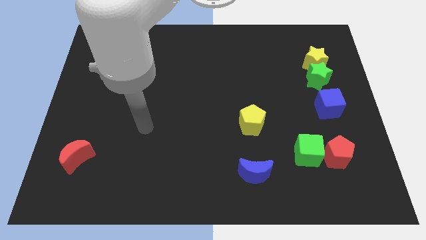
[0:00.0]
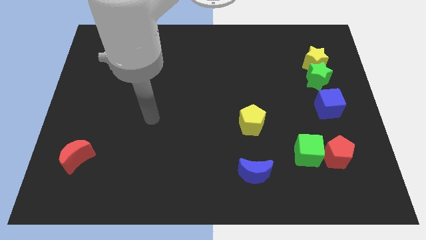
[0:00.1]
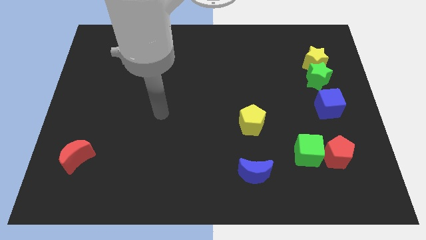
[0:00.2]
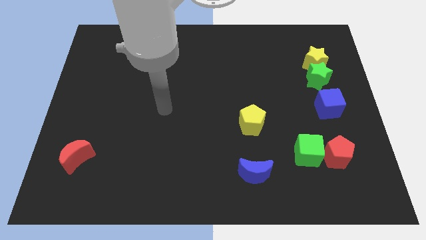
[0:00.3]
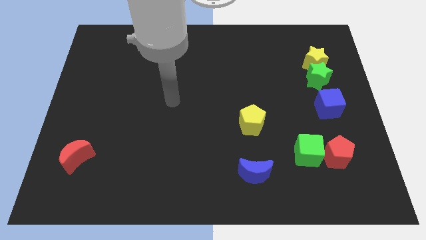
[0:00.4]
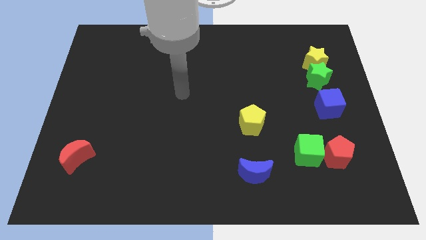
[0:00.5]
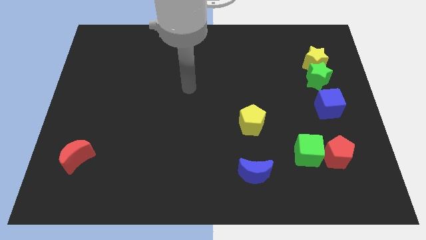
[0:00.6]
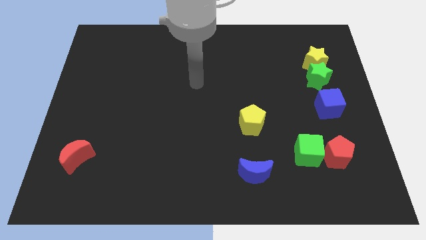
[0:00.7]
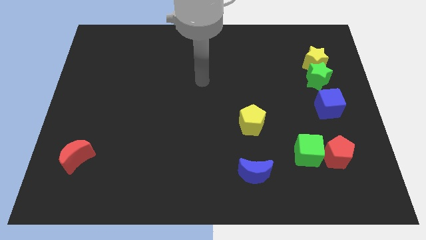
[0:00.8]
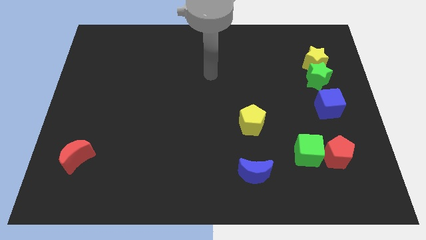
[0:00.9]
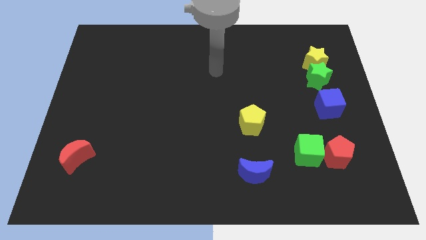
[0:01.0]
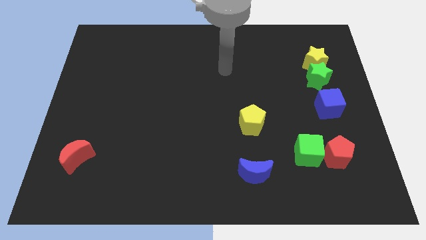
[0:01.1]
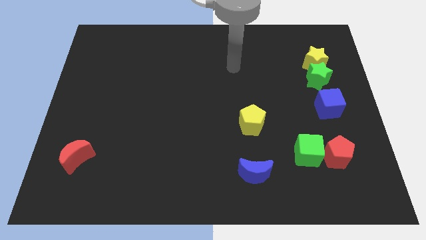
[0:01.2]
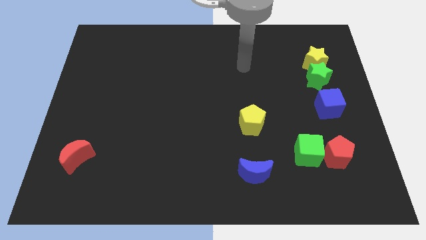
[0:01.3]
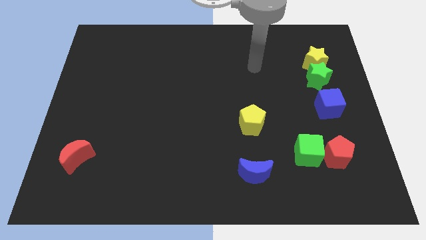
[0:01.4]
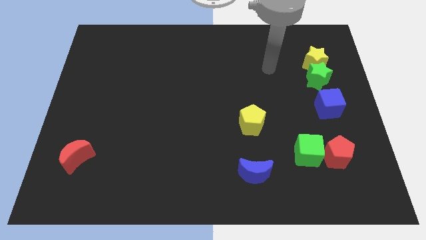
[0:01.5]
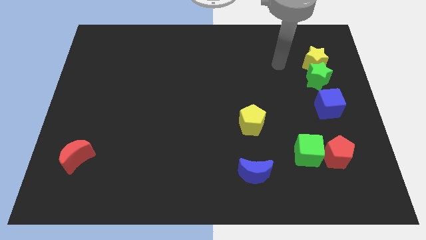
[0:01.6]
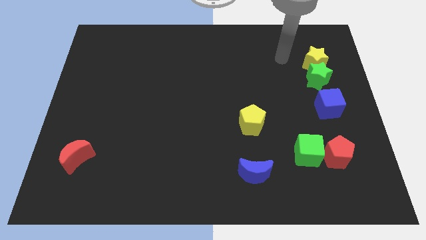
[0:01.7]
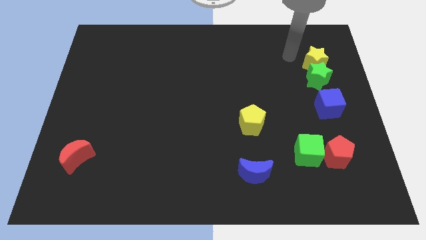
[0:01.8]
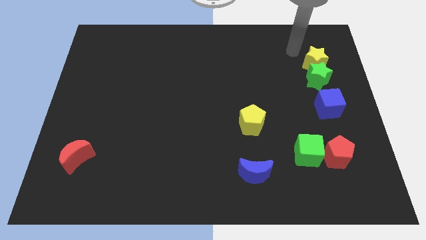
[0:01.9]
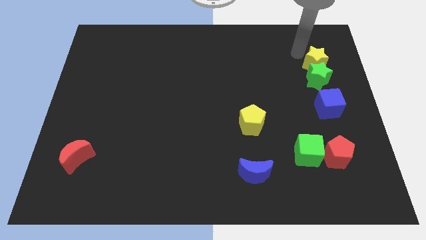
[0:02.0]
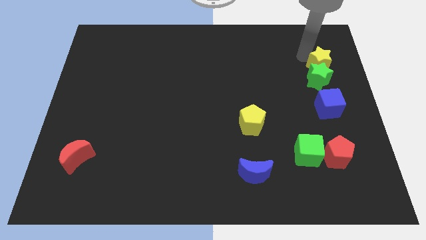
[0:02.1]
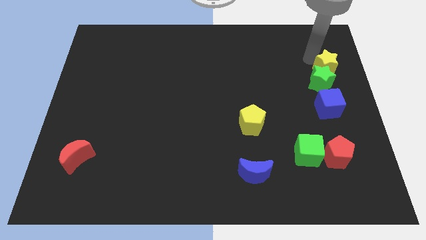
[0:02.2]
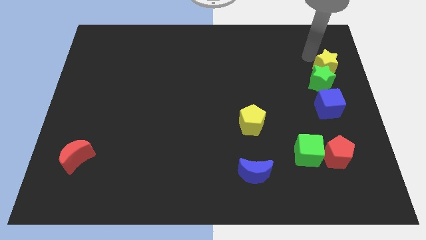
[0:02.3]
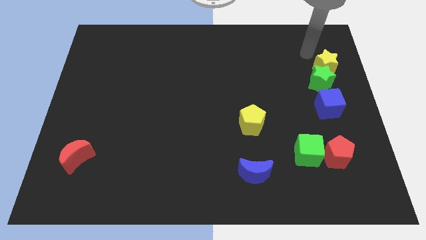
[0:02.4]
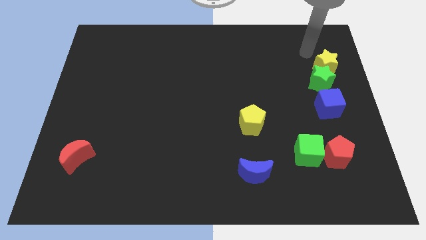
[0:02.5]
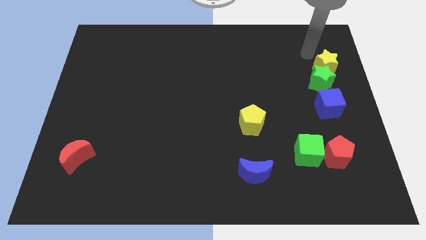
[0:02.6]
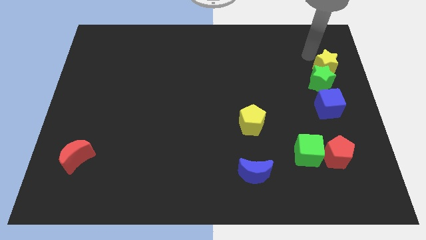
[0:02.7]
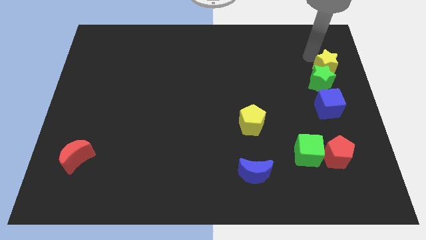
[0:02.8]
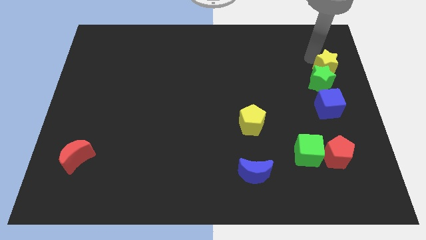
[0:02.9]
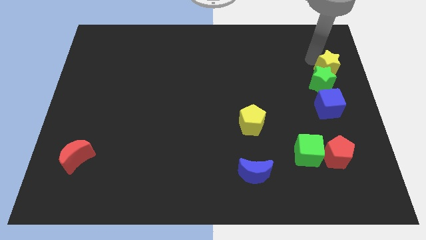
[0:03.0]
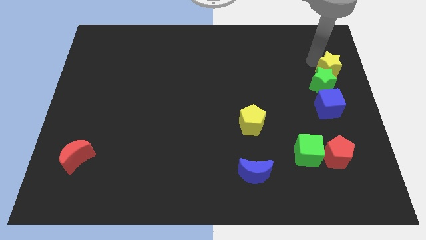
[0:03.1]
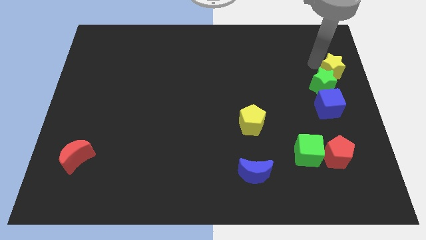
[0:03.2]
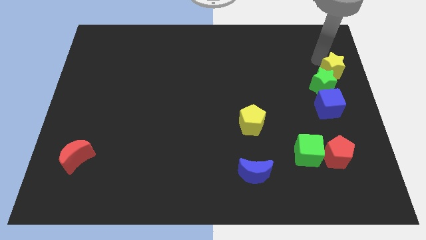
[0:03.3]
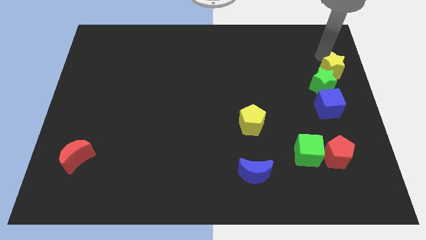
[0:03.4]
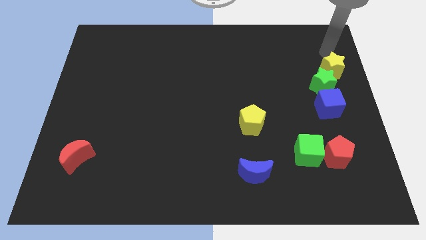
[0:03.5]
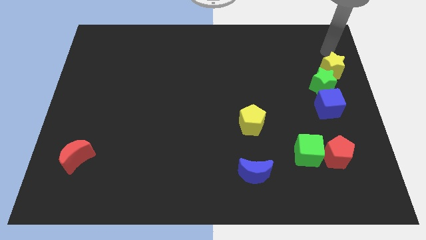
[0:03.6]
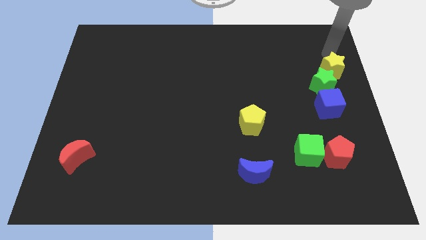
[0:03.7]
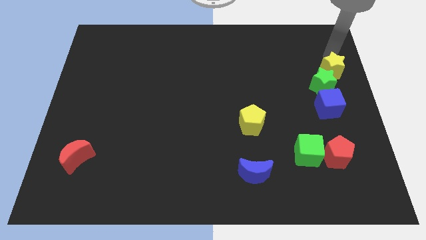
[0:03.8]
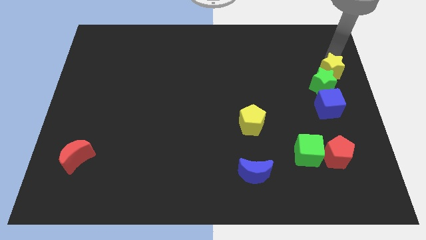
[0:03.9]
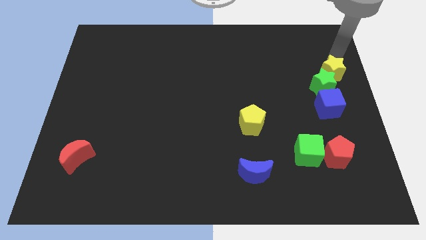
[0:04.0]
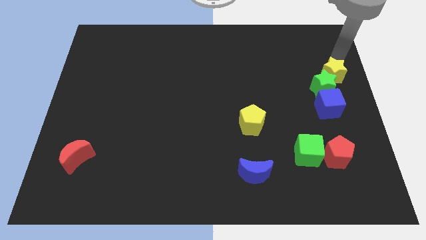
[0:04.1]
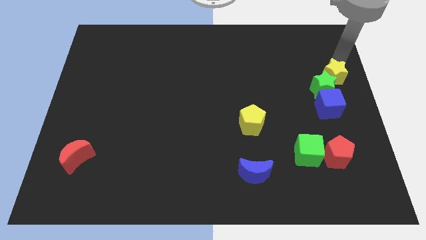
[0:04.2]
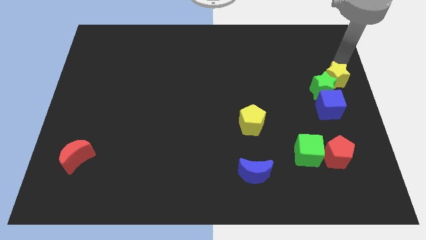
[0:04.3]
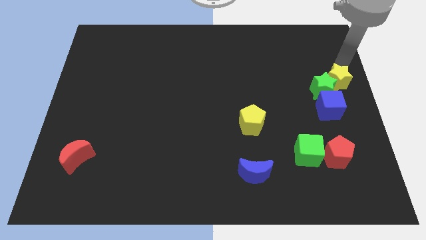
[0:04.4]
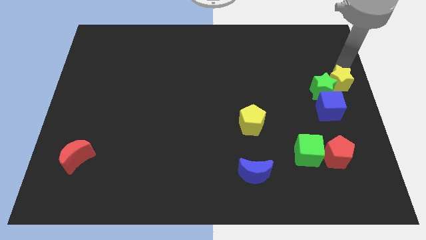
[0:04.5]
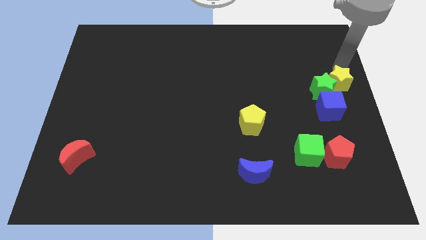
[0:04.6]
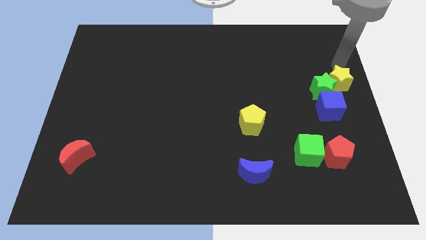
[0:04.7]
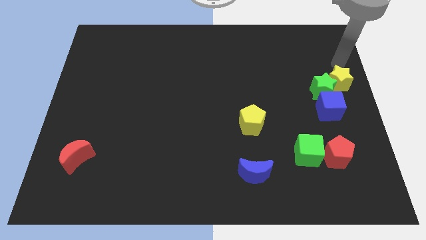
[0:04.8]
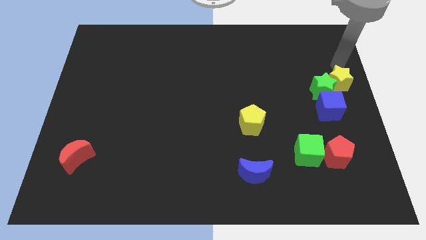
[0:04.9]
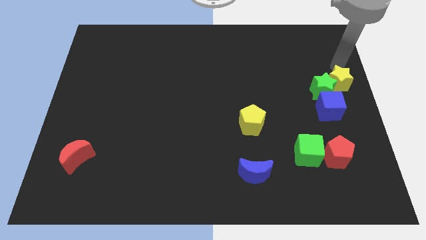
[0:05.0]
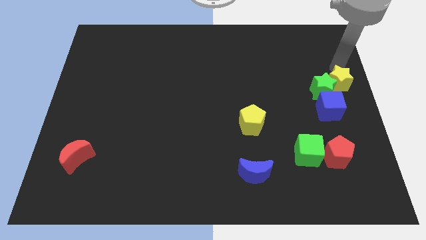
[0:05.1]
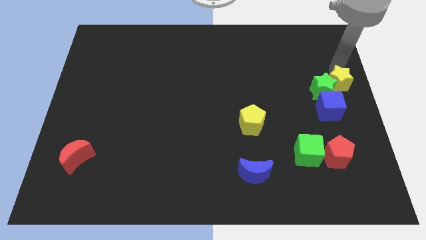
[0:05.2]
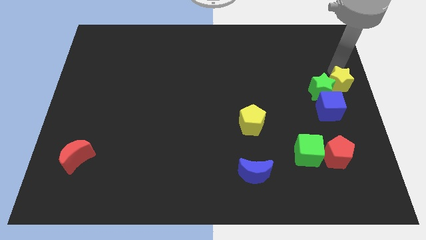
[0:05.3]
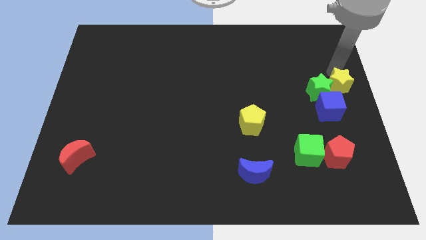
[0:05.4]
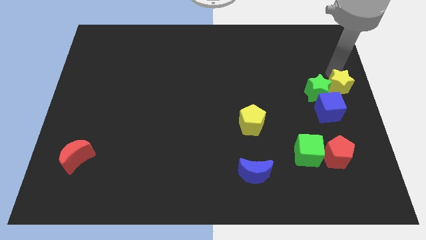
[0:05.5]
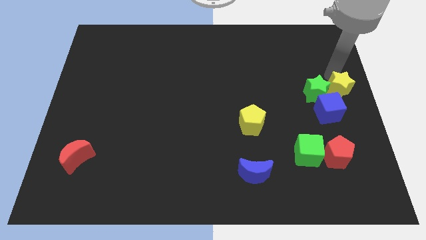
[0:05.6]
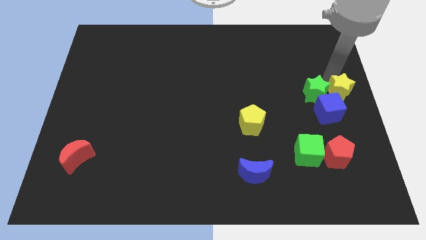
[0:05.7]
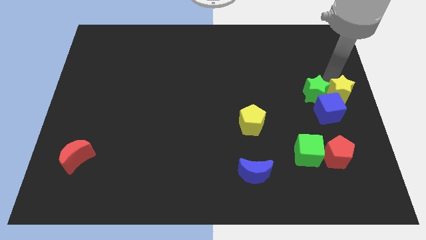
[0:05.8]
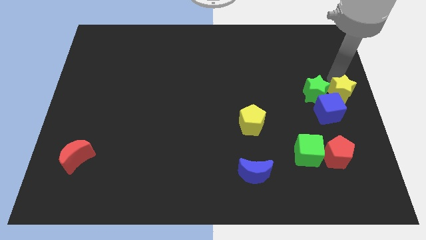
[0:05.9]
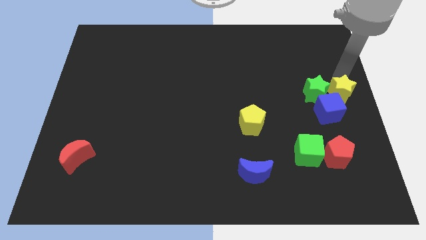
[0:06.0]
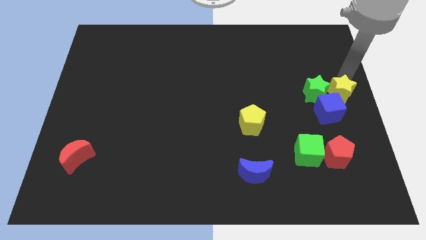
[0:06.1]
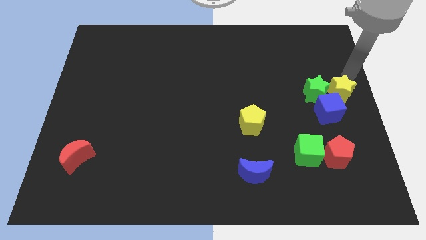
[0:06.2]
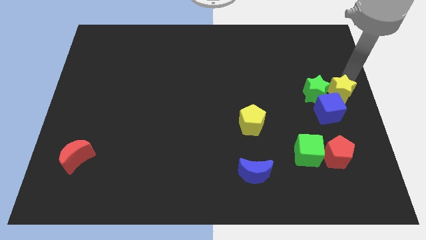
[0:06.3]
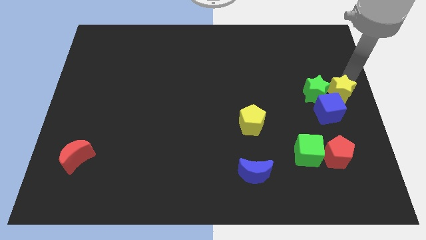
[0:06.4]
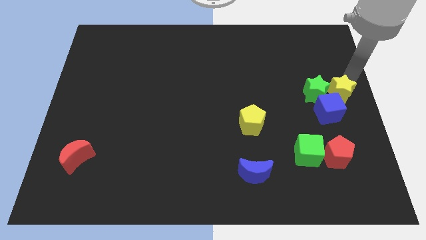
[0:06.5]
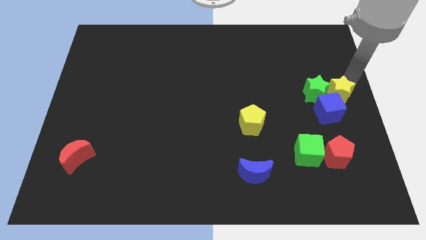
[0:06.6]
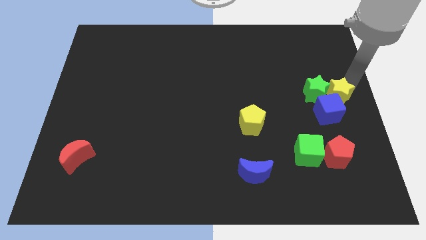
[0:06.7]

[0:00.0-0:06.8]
put the yellow star to the blue cube
